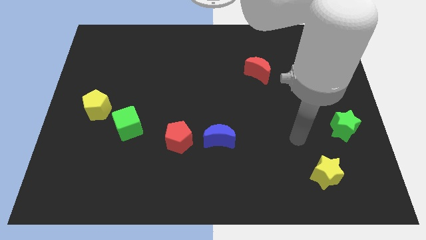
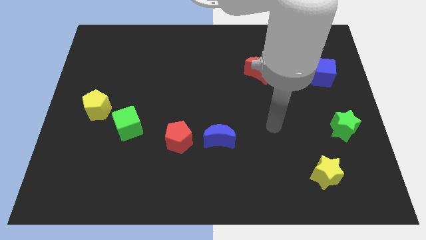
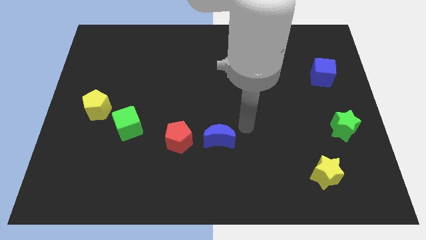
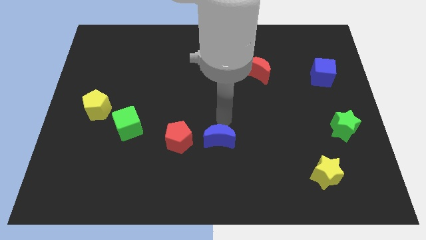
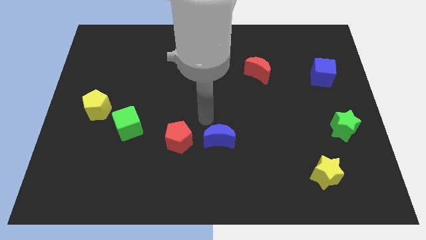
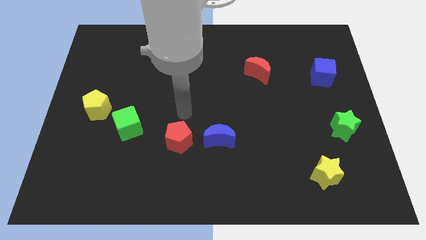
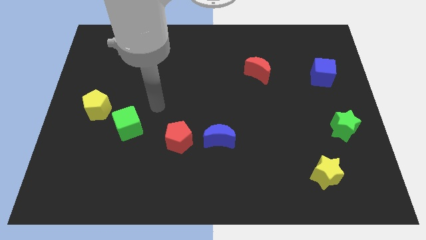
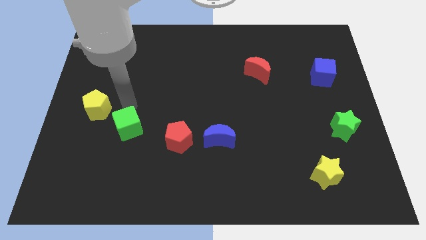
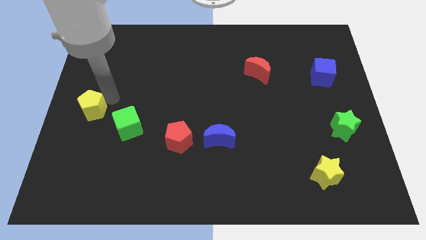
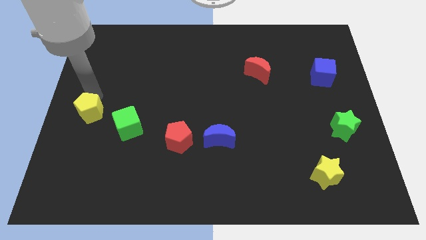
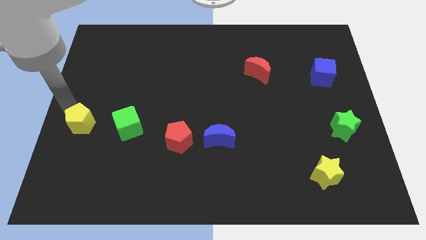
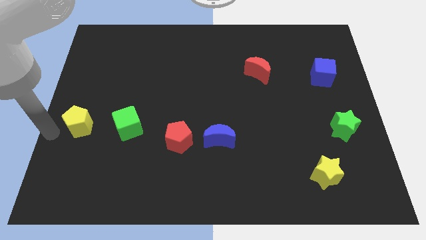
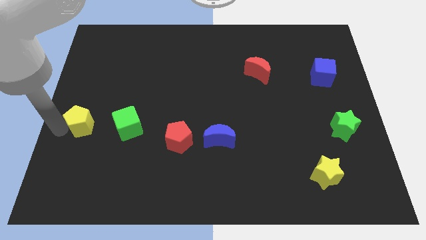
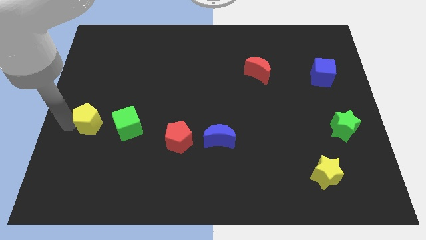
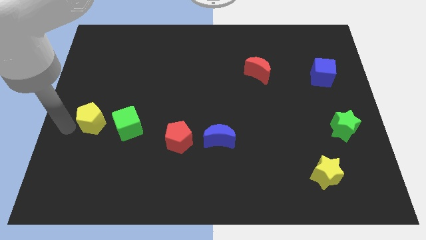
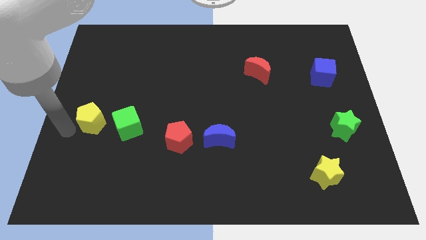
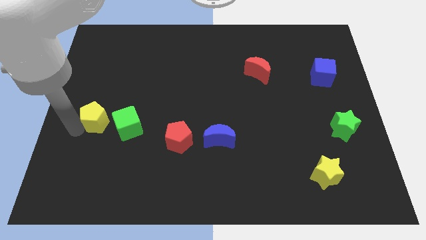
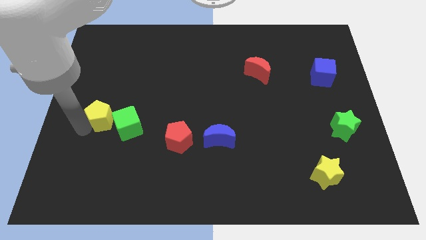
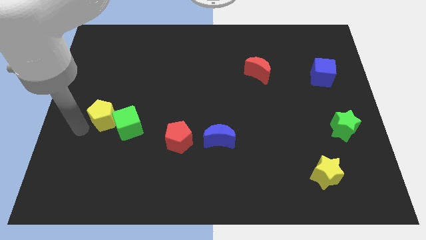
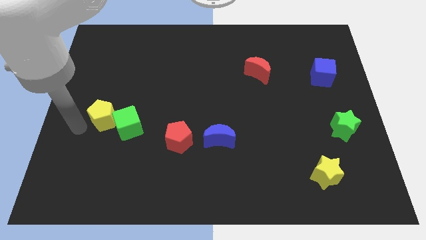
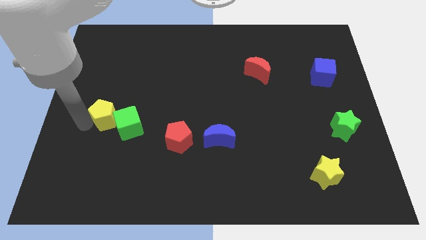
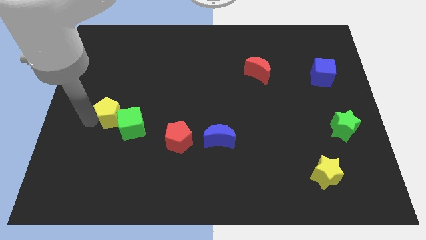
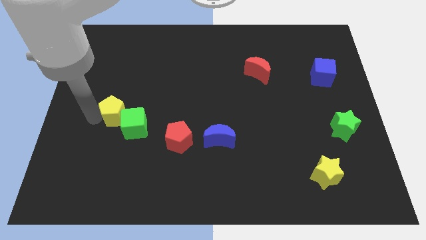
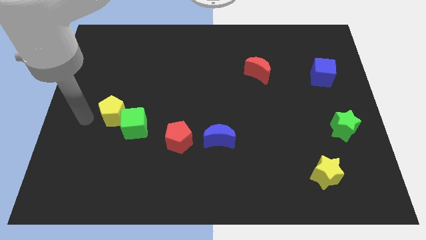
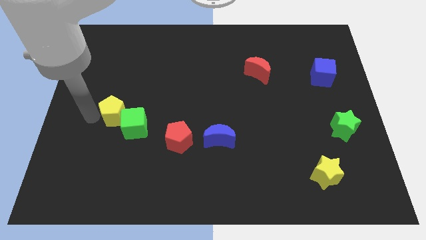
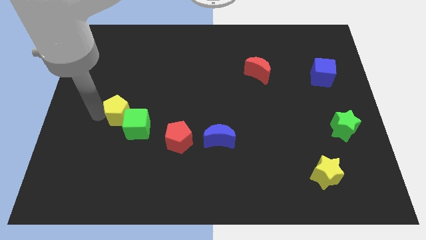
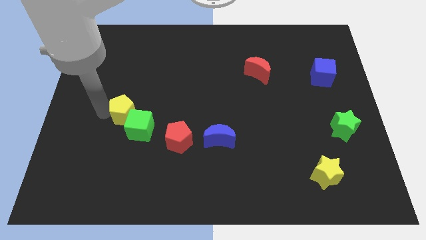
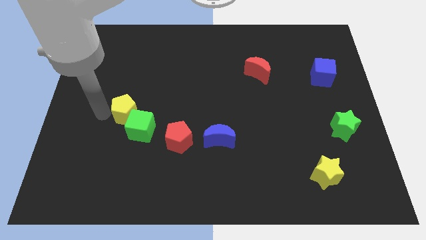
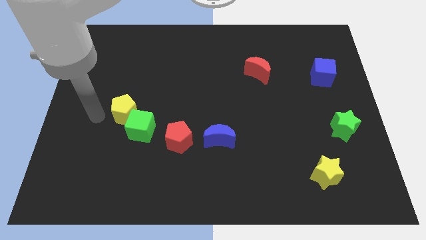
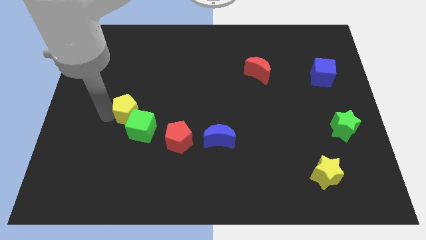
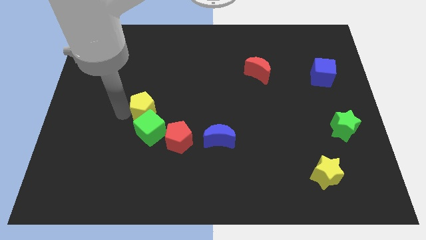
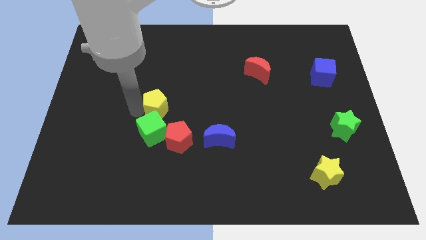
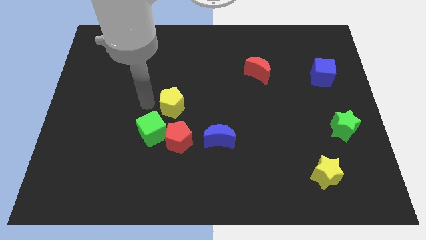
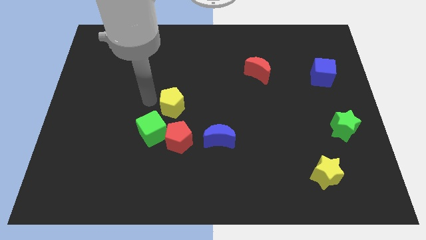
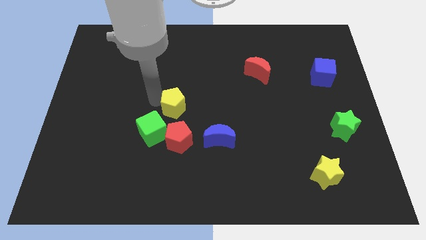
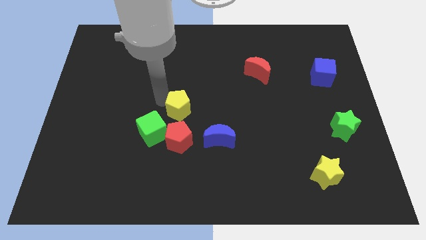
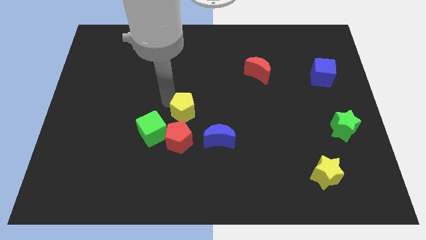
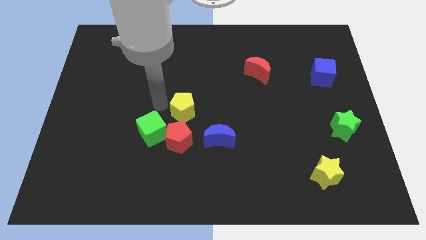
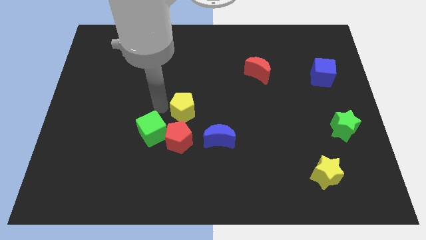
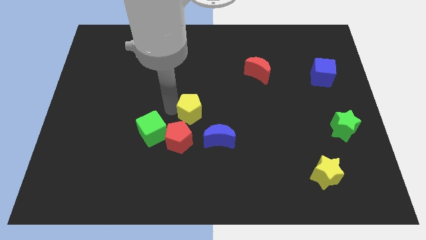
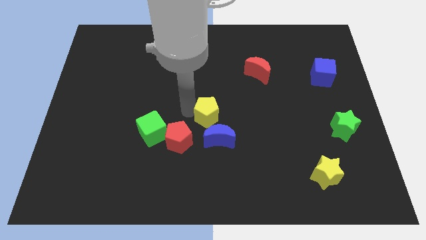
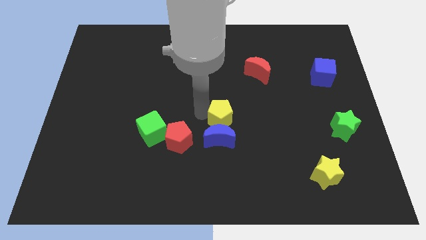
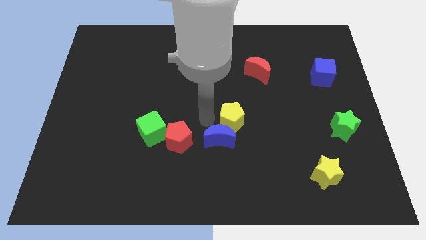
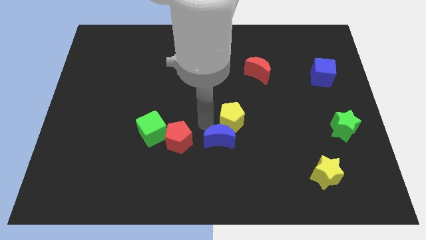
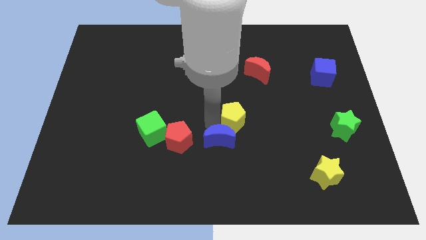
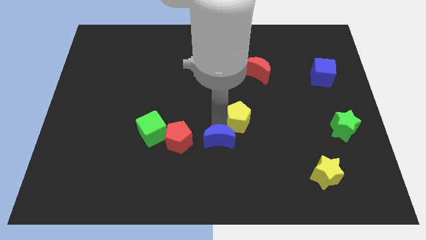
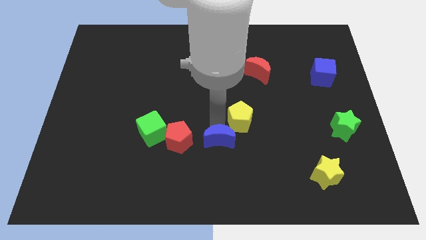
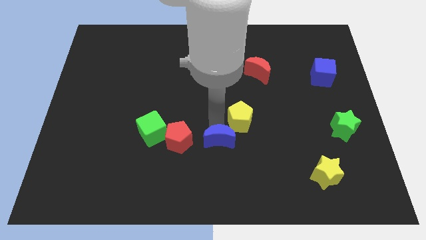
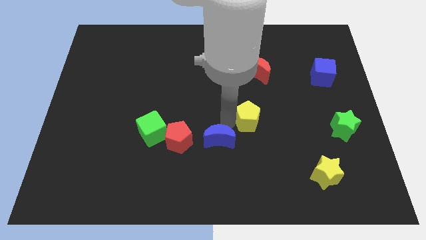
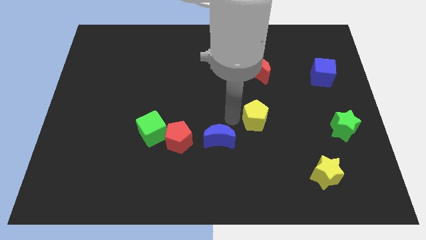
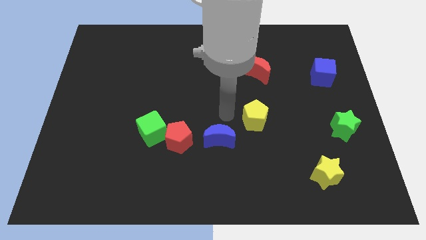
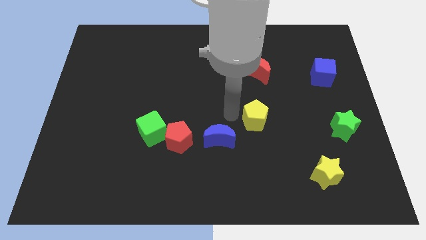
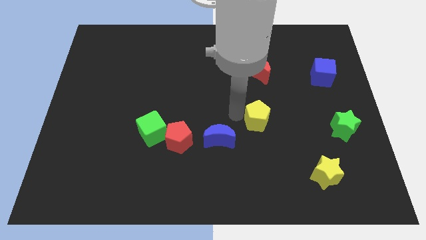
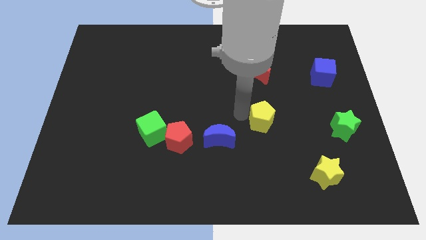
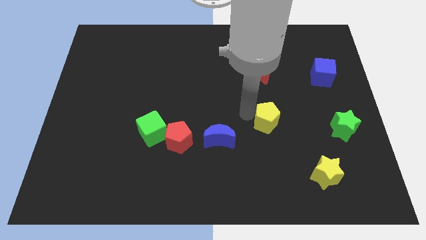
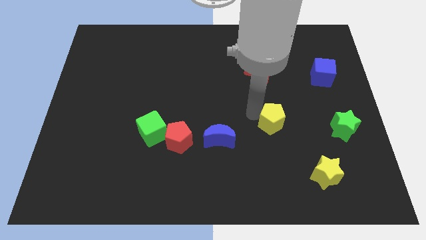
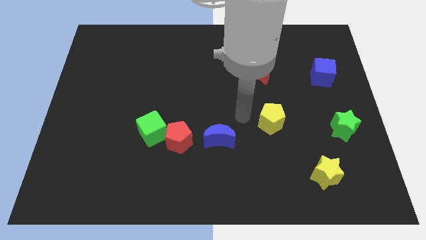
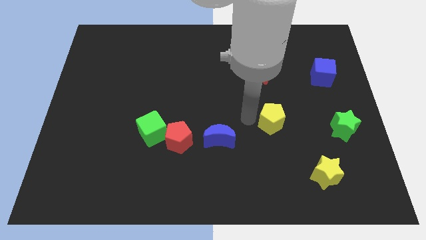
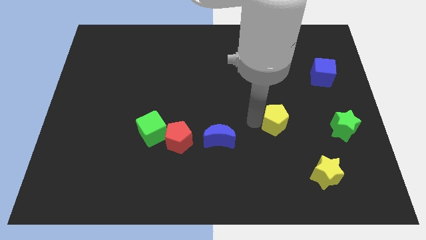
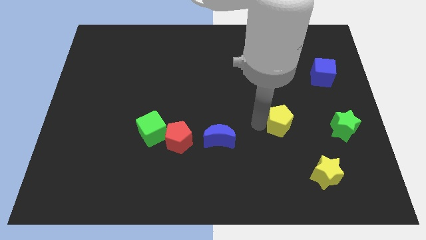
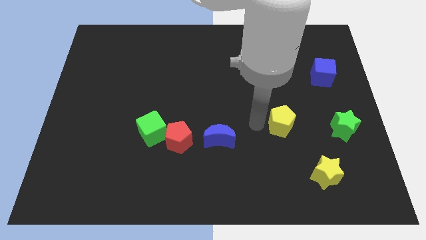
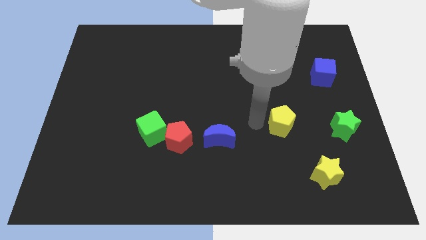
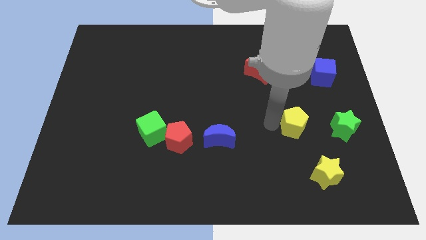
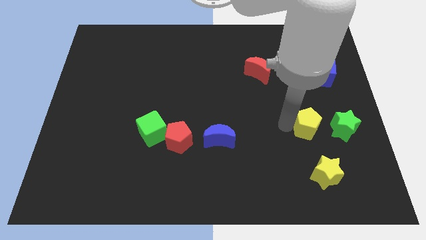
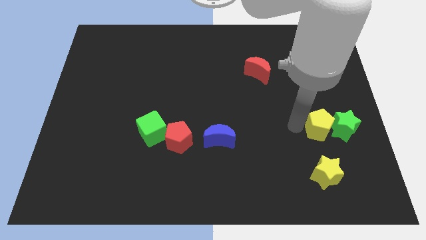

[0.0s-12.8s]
put the yellow pentagon next to the green star

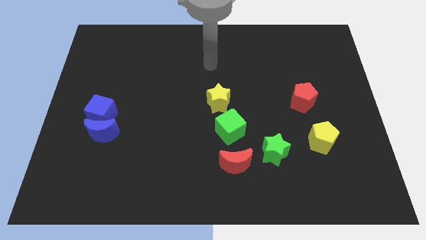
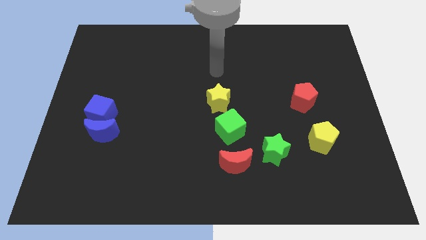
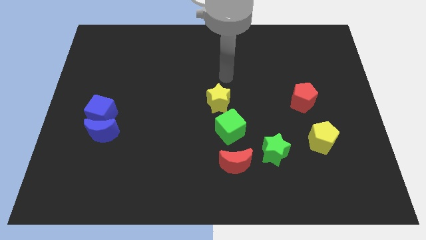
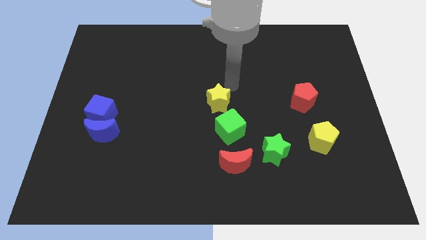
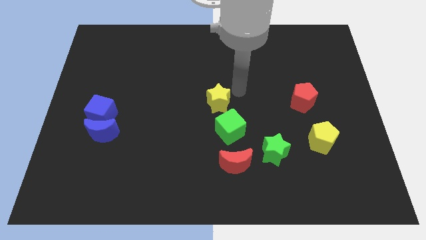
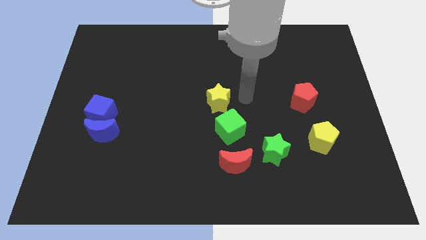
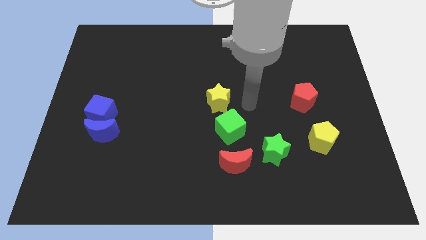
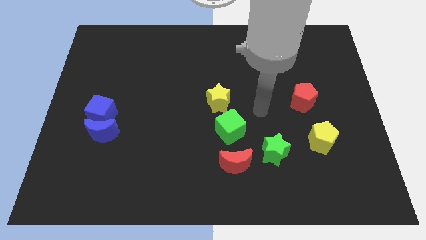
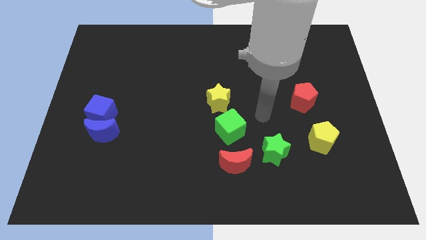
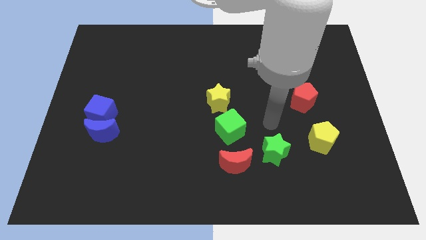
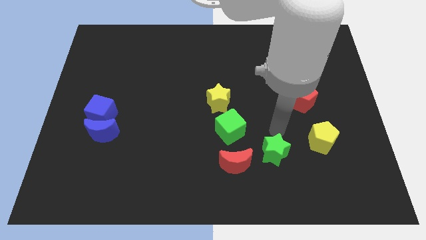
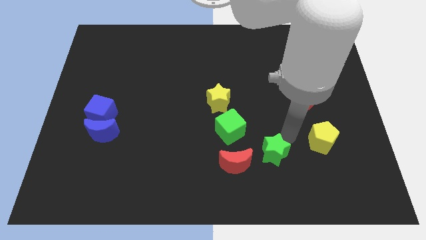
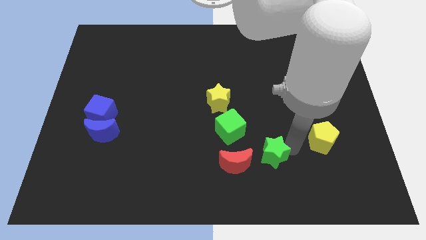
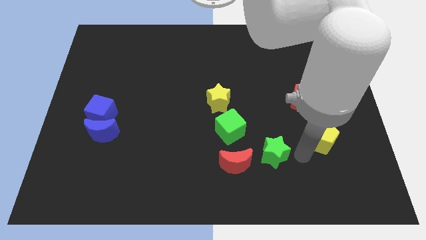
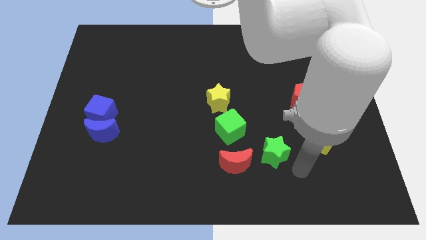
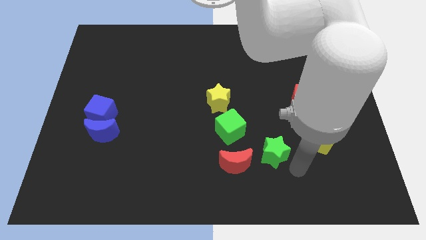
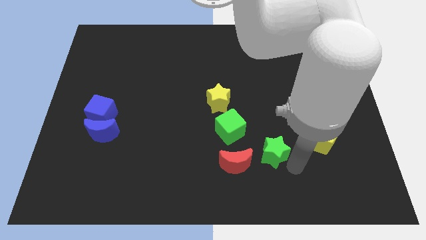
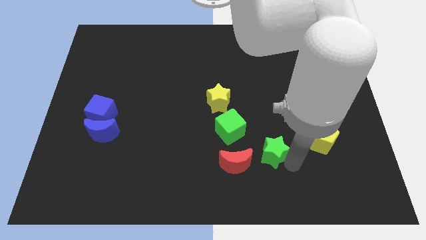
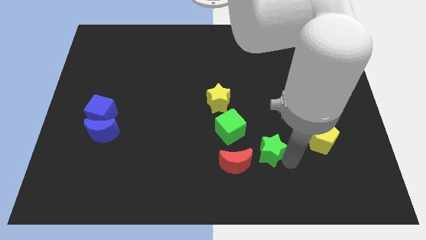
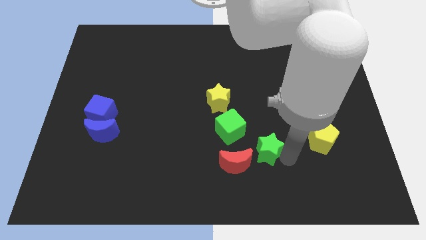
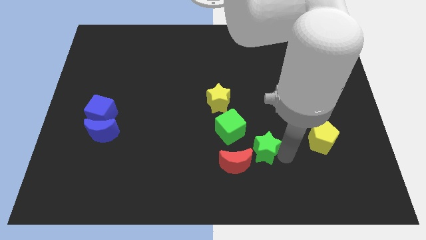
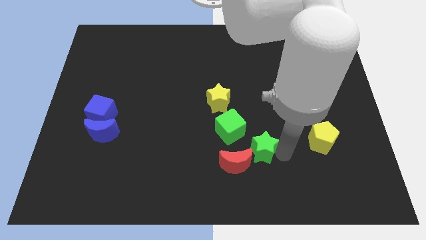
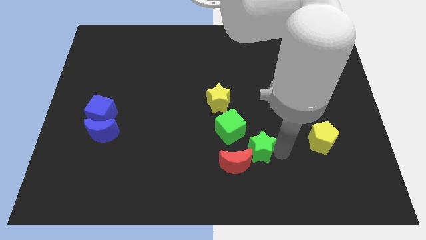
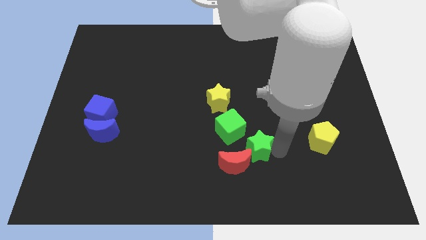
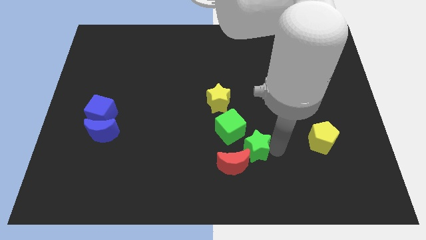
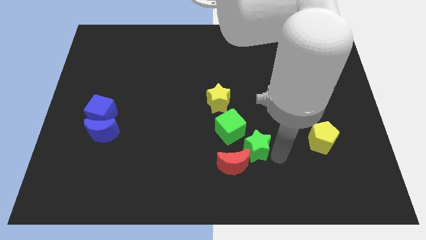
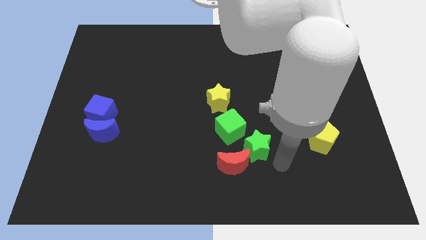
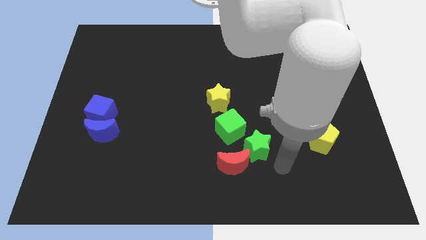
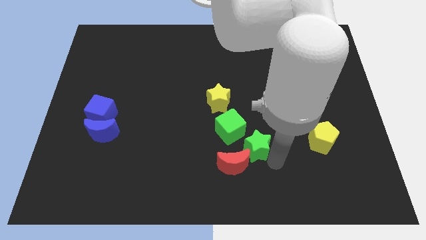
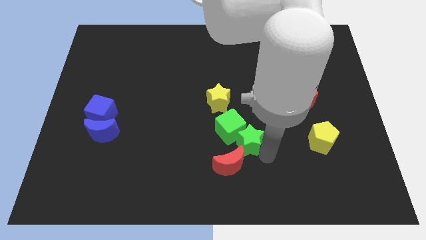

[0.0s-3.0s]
push the green star close to the green cube
